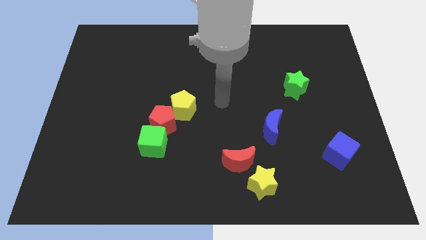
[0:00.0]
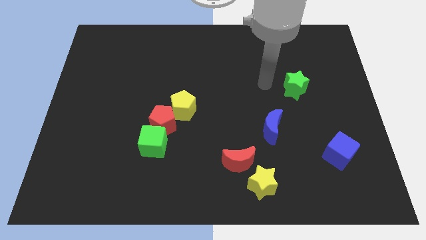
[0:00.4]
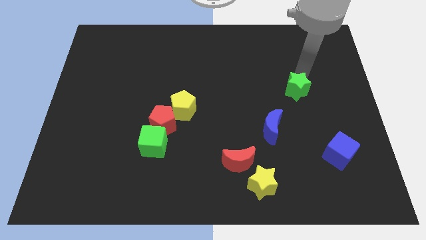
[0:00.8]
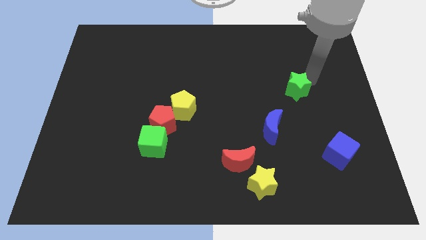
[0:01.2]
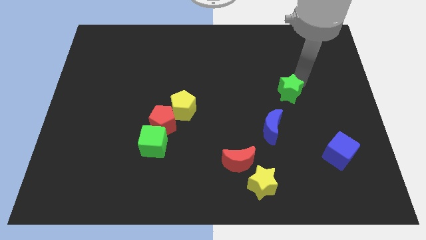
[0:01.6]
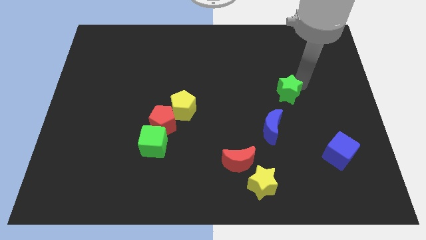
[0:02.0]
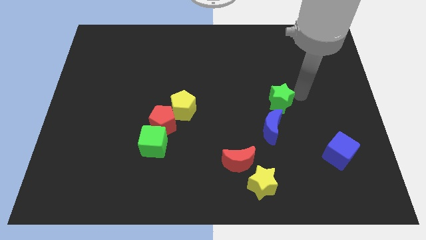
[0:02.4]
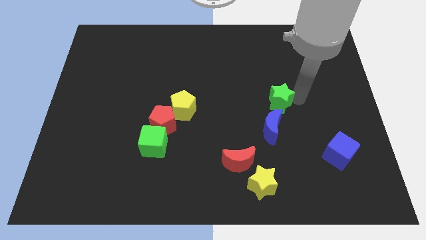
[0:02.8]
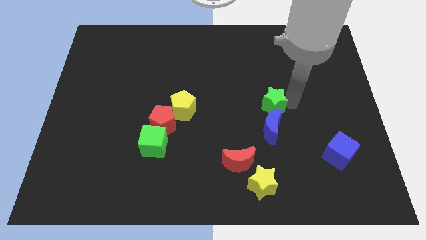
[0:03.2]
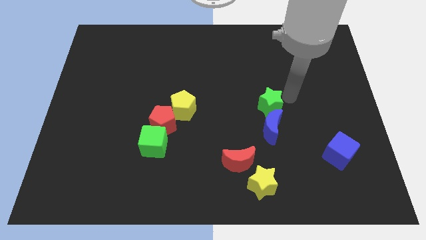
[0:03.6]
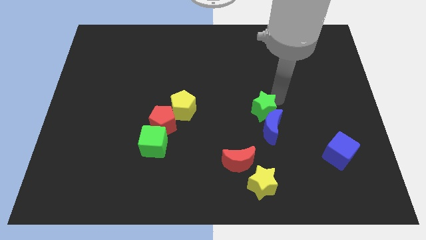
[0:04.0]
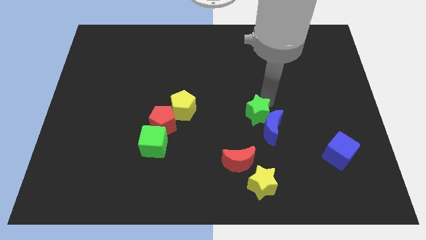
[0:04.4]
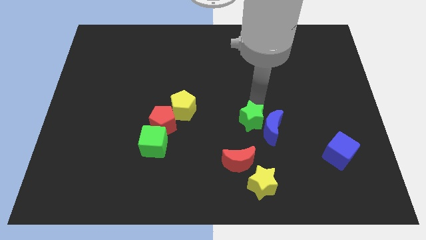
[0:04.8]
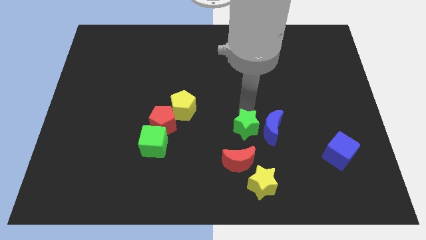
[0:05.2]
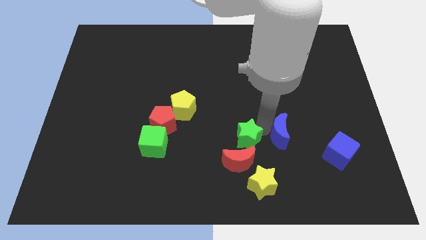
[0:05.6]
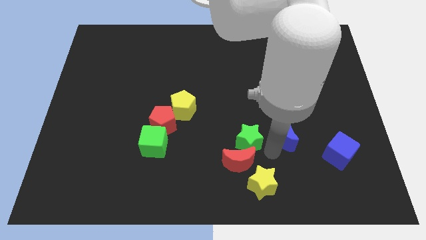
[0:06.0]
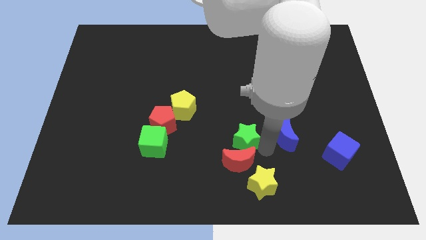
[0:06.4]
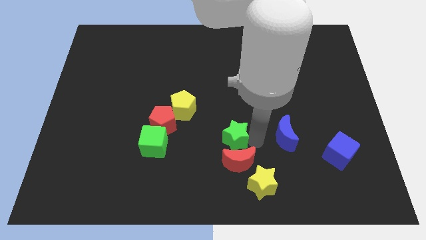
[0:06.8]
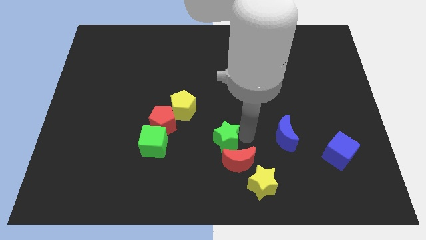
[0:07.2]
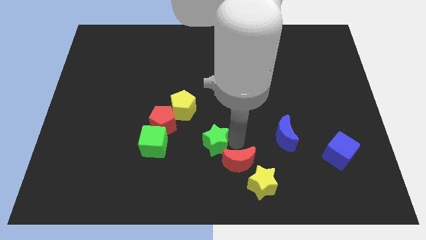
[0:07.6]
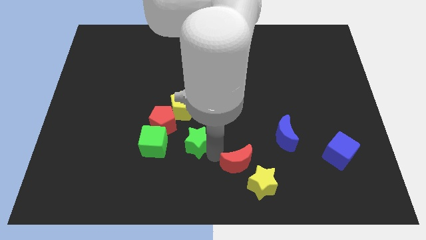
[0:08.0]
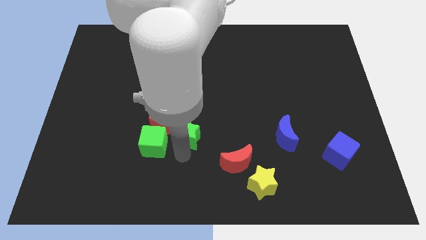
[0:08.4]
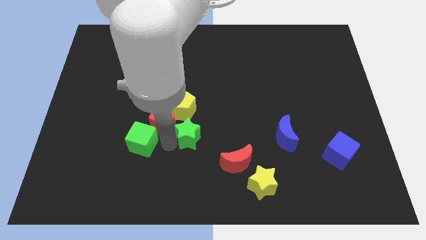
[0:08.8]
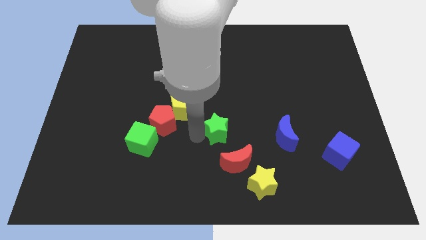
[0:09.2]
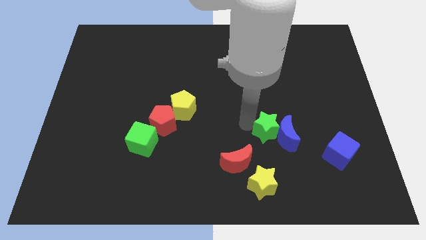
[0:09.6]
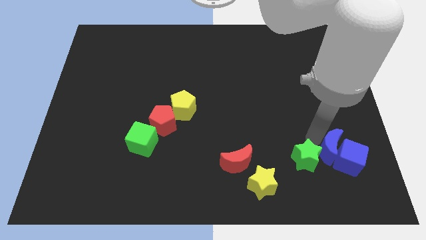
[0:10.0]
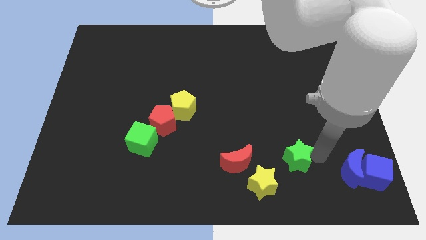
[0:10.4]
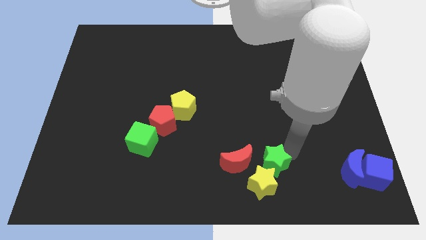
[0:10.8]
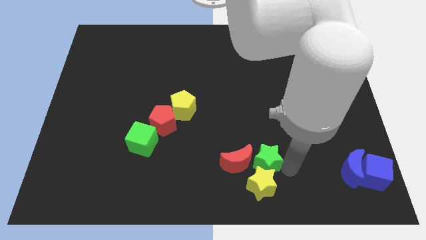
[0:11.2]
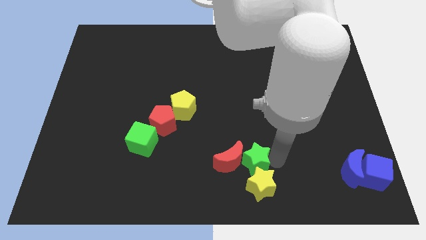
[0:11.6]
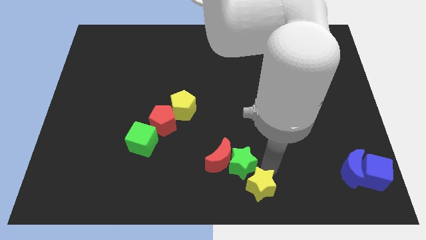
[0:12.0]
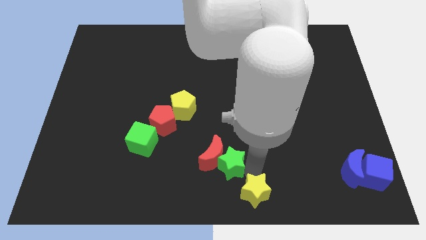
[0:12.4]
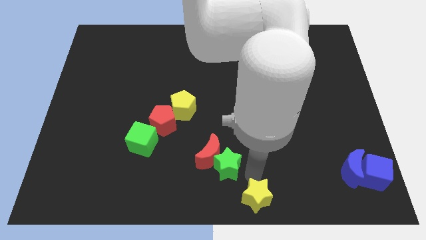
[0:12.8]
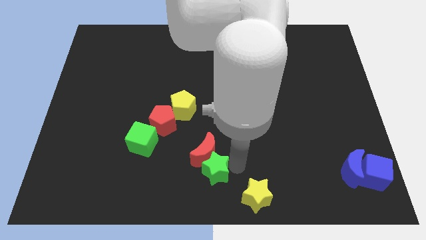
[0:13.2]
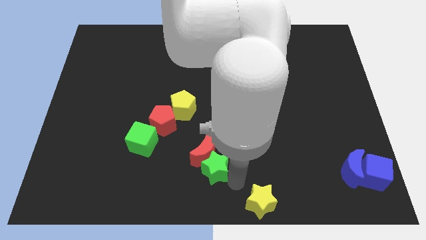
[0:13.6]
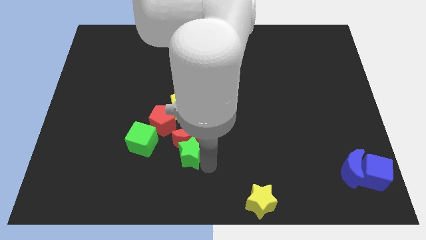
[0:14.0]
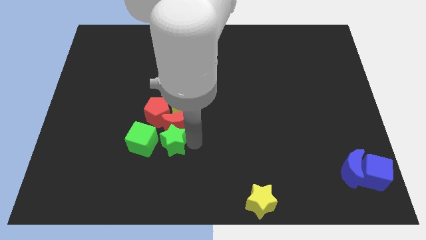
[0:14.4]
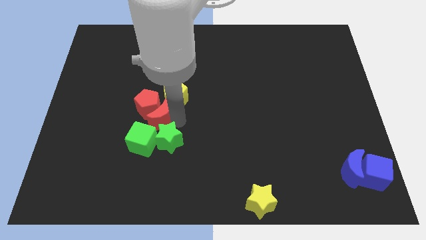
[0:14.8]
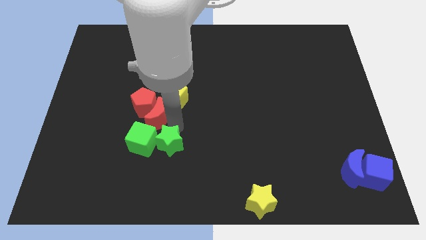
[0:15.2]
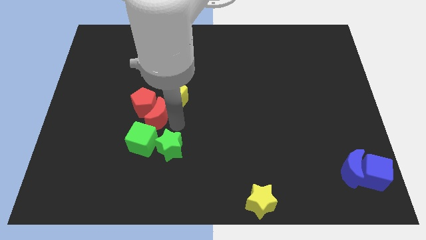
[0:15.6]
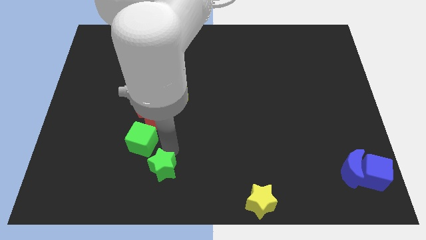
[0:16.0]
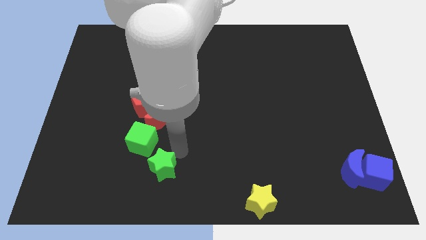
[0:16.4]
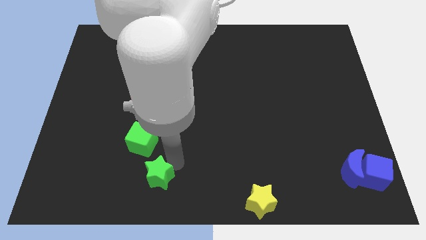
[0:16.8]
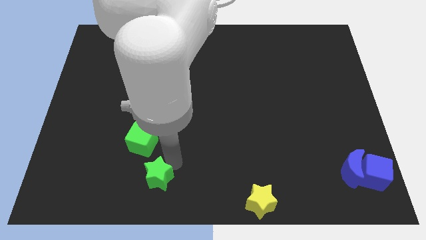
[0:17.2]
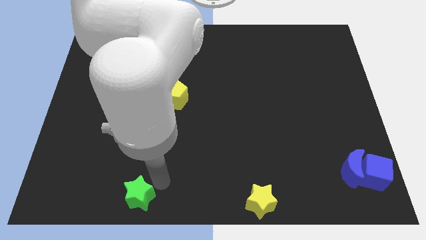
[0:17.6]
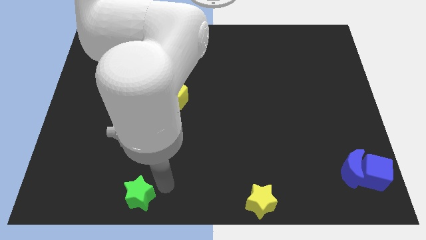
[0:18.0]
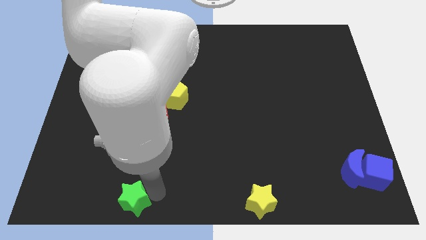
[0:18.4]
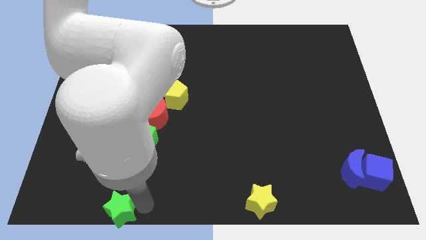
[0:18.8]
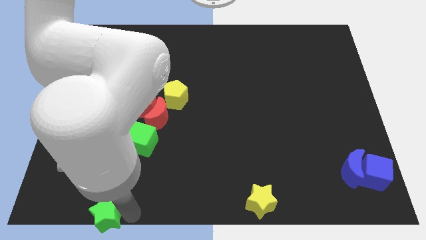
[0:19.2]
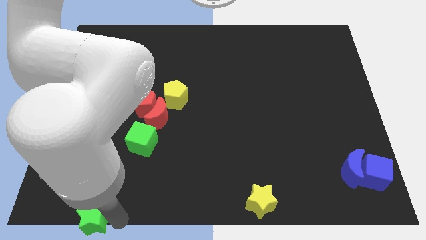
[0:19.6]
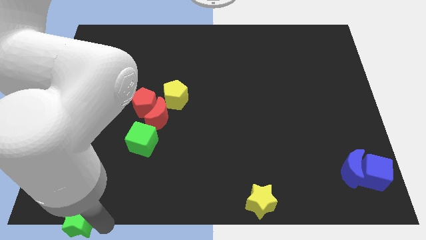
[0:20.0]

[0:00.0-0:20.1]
push the green star to the bottom left corner

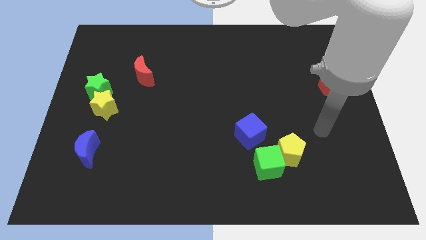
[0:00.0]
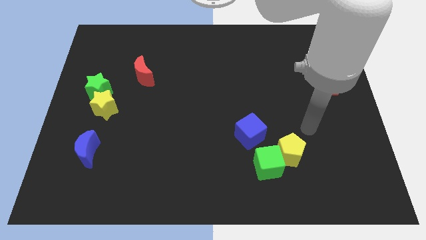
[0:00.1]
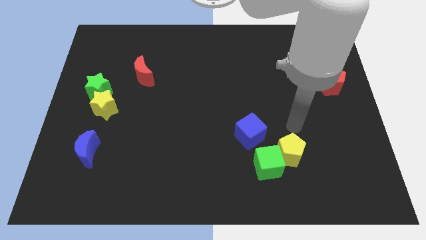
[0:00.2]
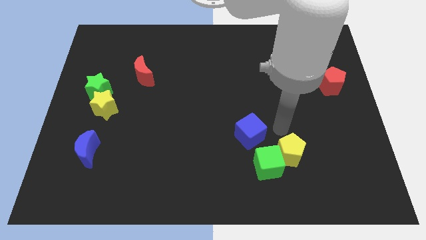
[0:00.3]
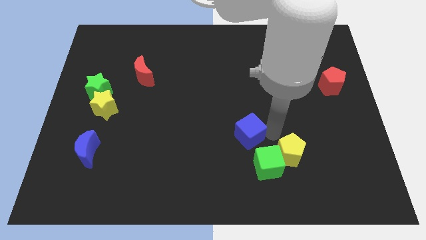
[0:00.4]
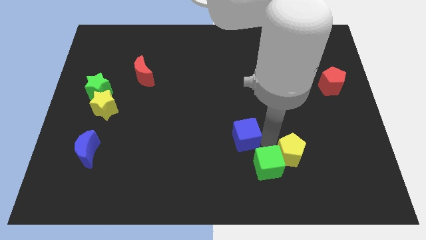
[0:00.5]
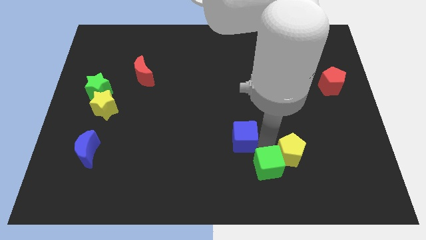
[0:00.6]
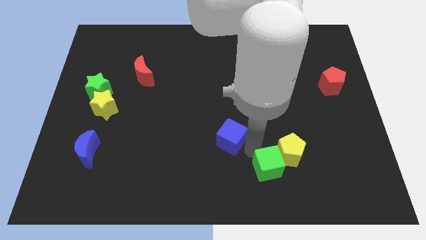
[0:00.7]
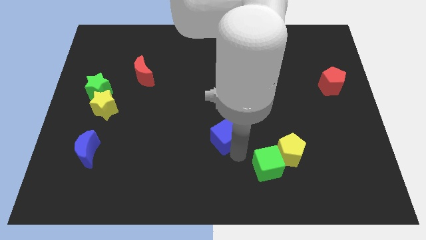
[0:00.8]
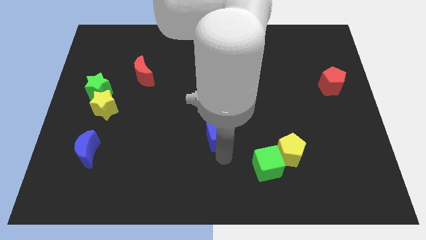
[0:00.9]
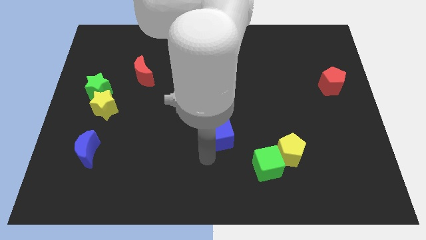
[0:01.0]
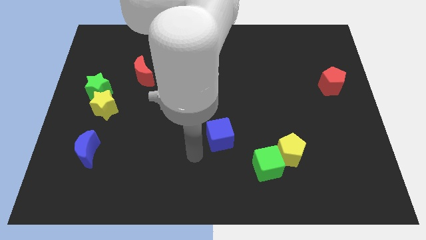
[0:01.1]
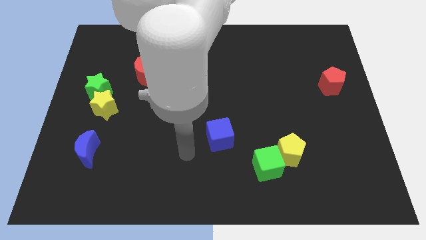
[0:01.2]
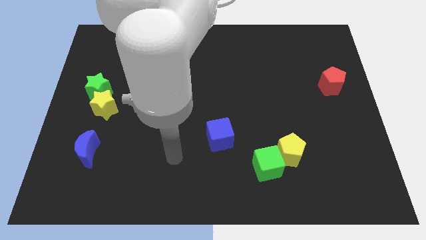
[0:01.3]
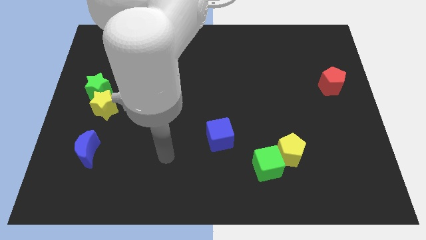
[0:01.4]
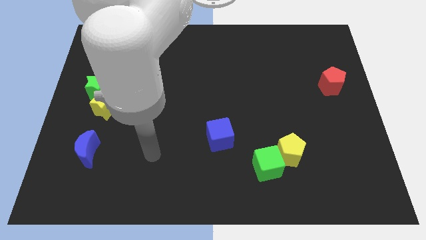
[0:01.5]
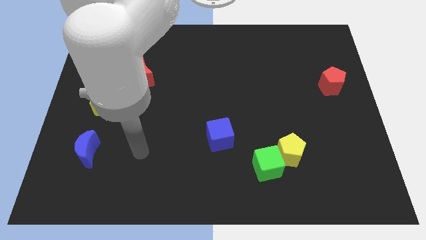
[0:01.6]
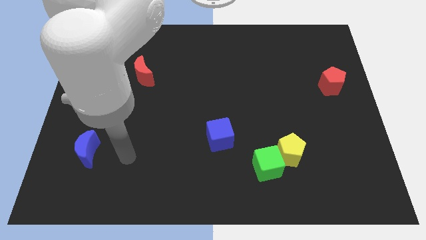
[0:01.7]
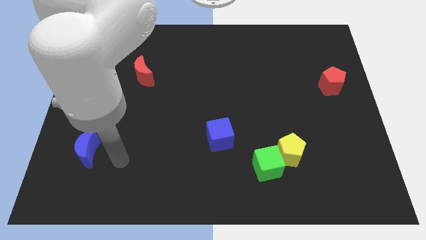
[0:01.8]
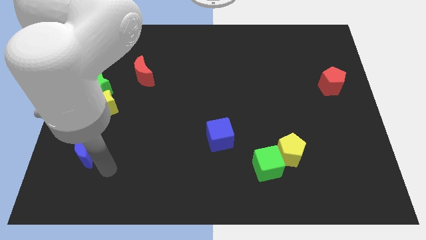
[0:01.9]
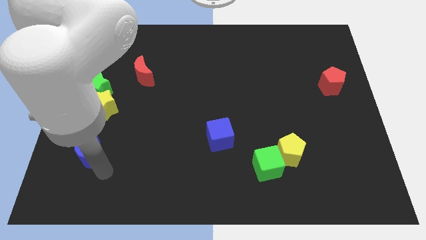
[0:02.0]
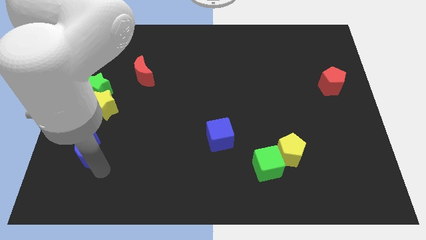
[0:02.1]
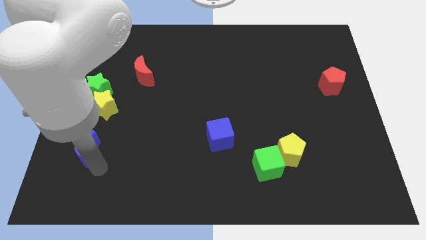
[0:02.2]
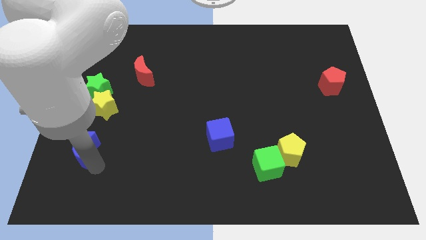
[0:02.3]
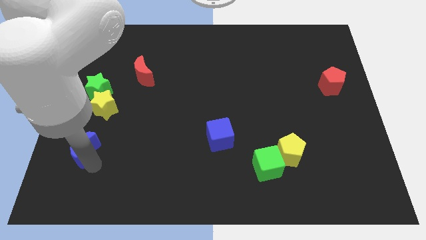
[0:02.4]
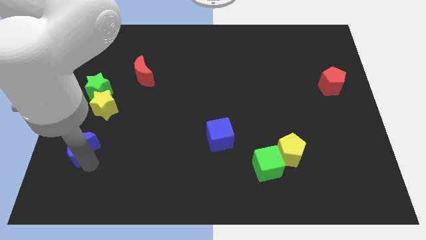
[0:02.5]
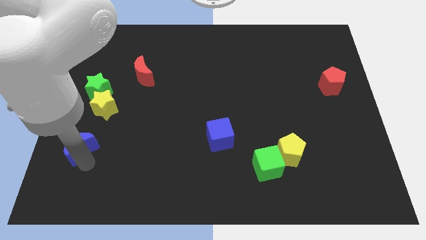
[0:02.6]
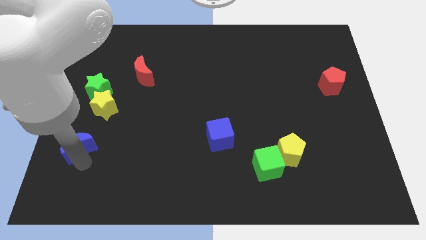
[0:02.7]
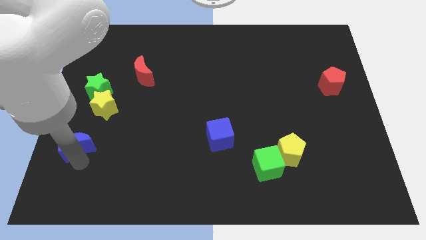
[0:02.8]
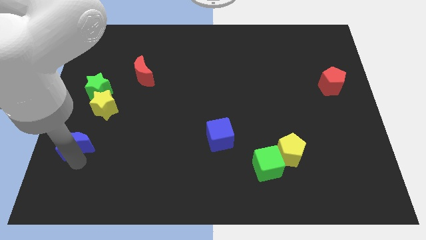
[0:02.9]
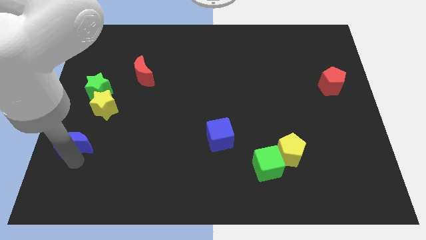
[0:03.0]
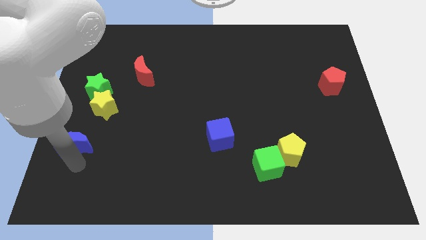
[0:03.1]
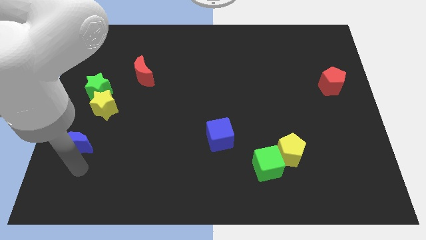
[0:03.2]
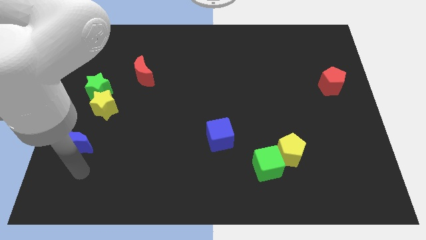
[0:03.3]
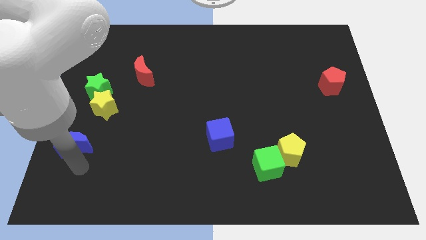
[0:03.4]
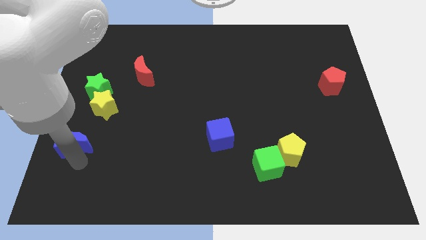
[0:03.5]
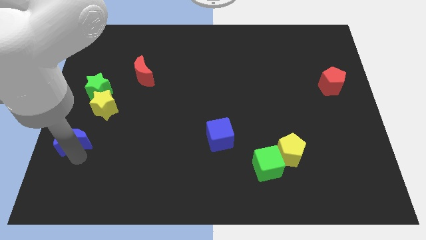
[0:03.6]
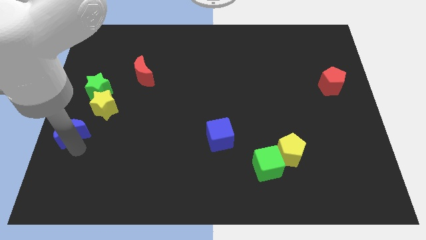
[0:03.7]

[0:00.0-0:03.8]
move the blue moon to the center left
